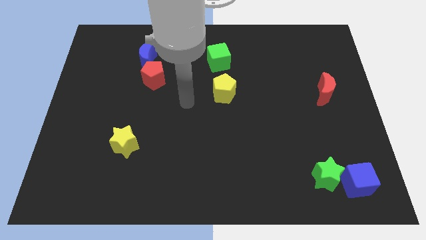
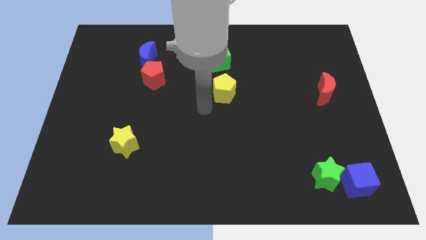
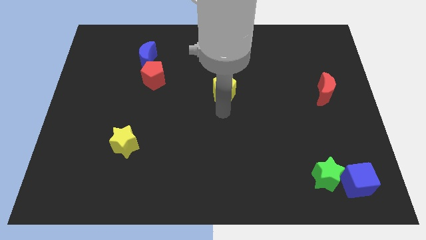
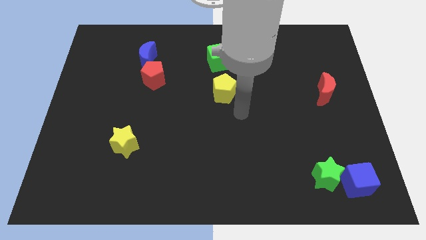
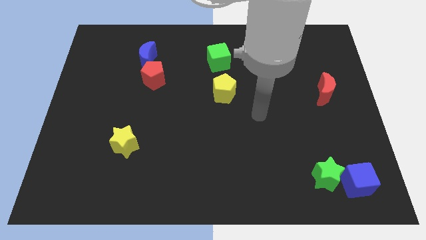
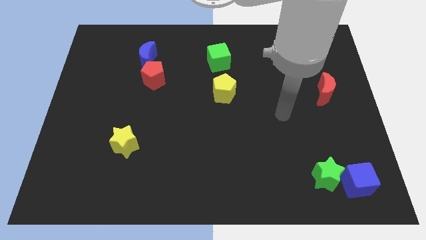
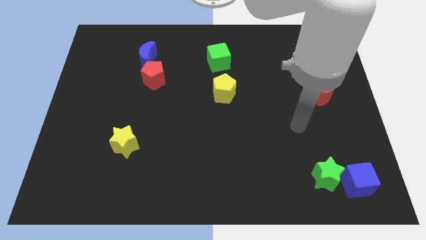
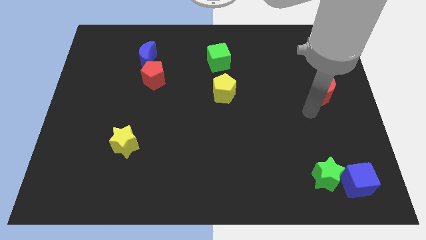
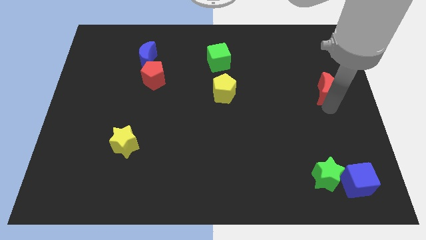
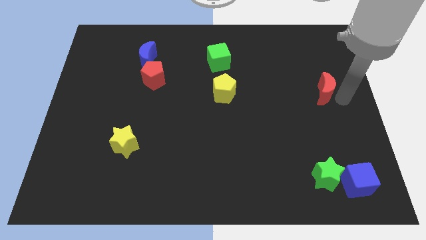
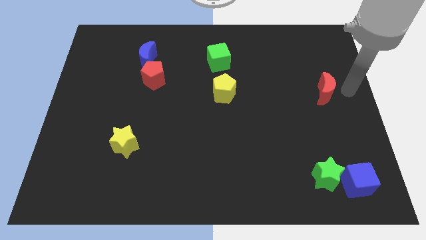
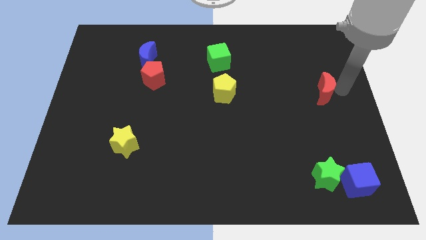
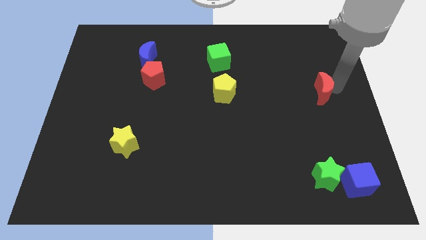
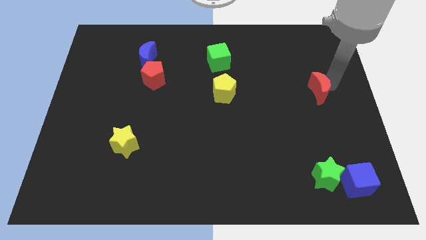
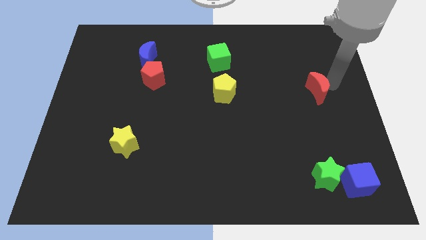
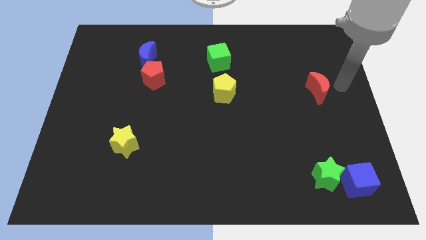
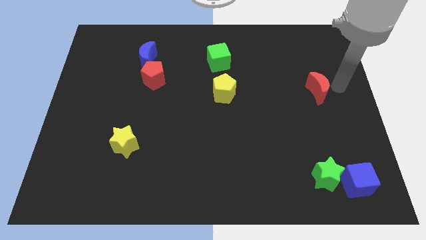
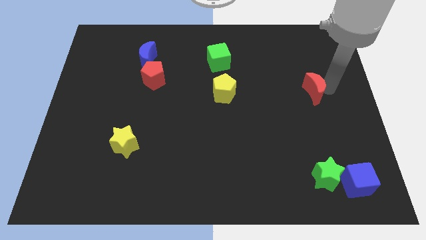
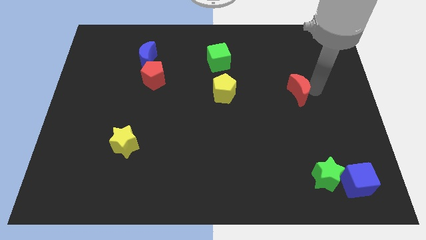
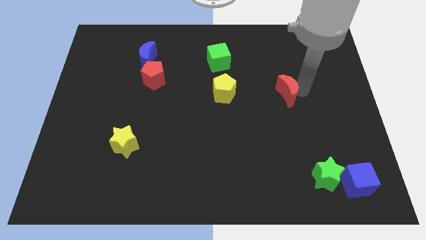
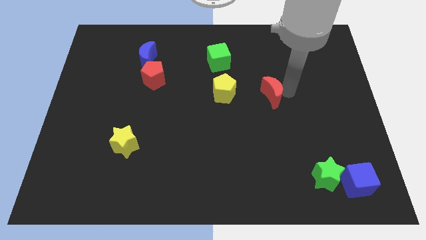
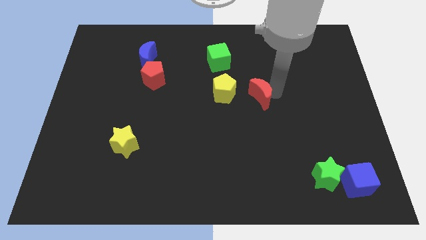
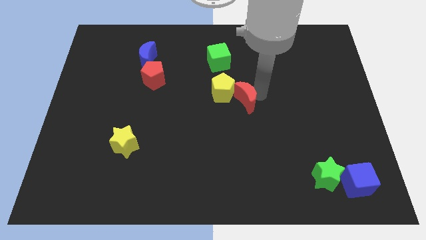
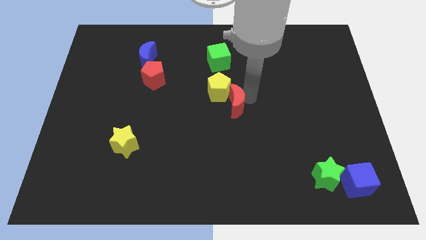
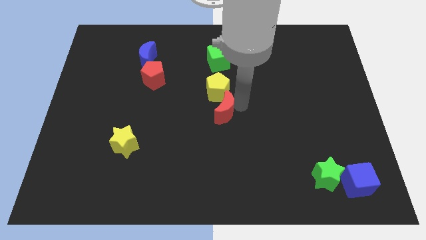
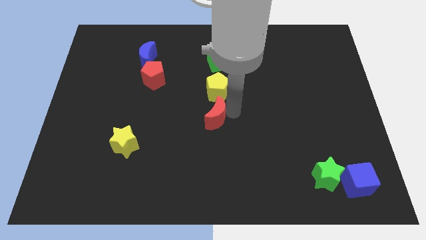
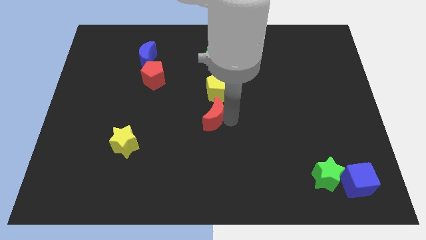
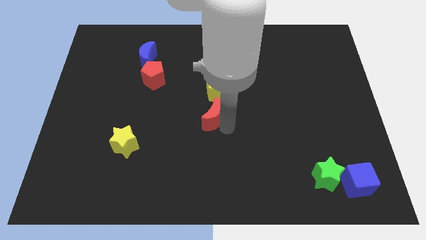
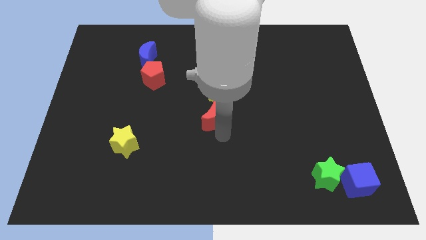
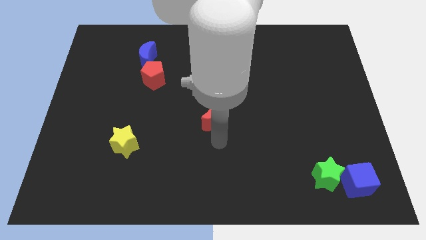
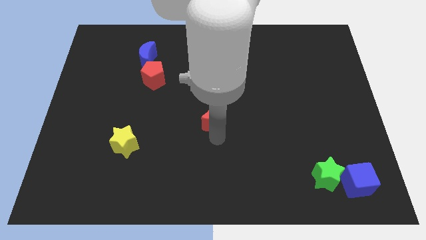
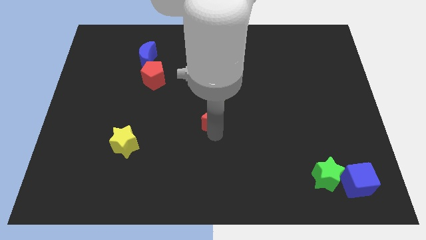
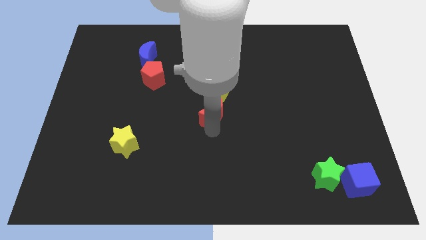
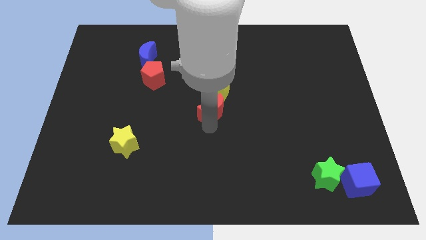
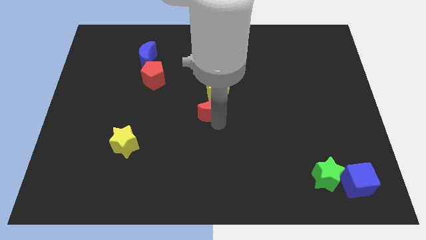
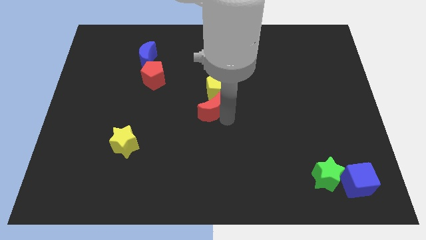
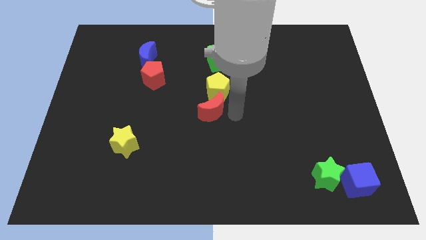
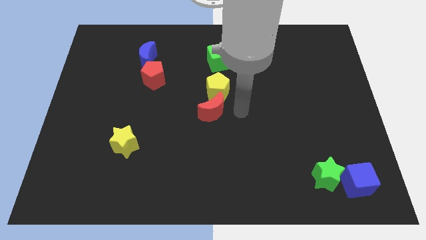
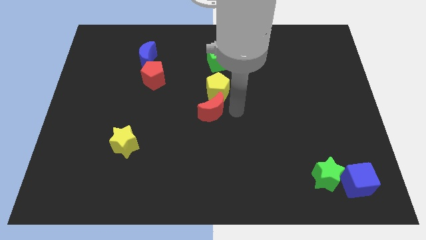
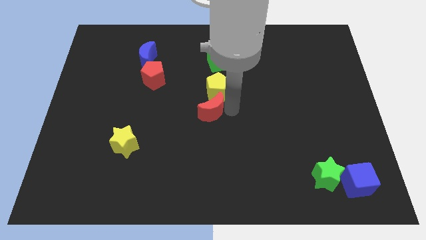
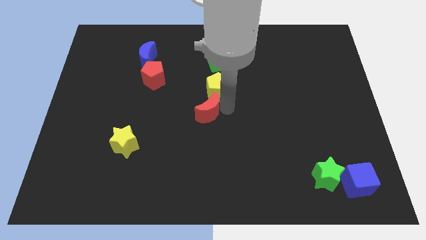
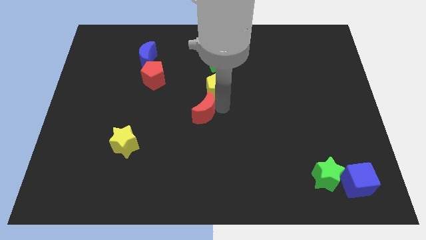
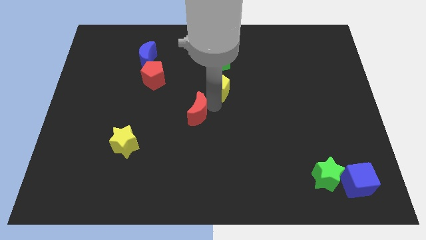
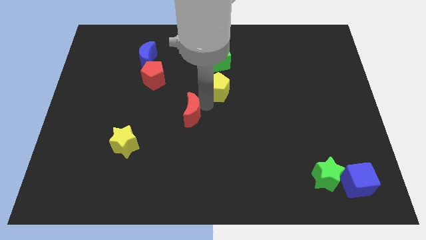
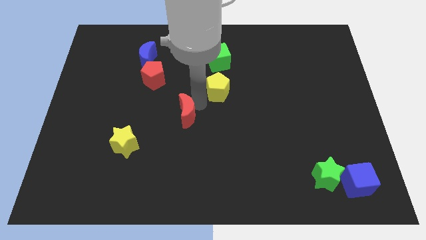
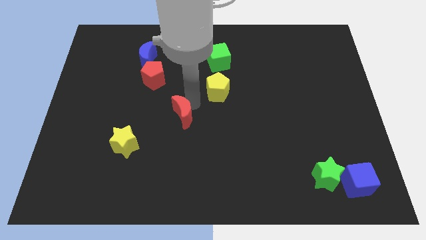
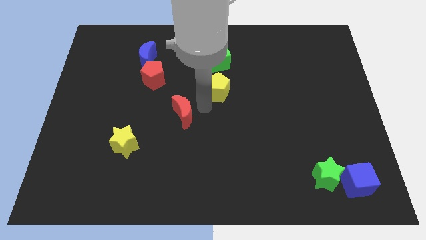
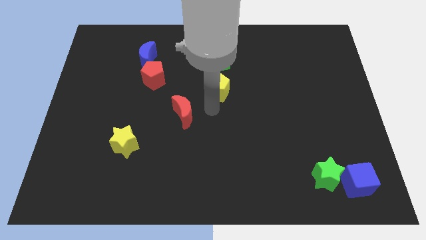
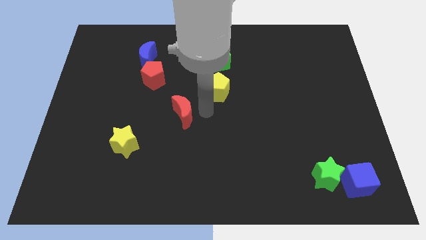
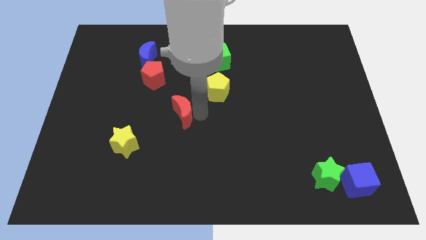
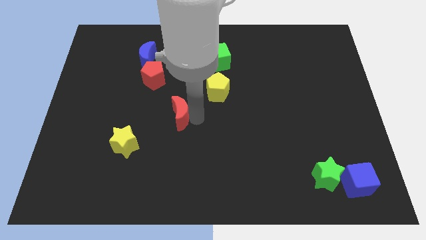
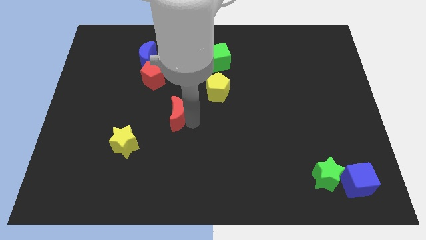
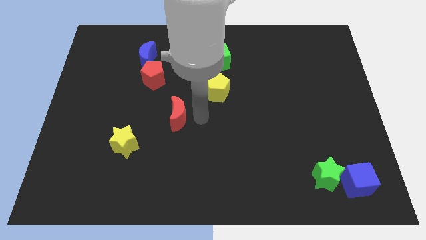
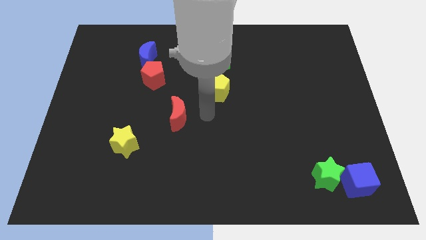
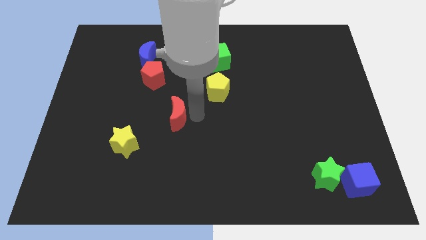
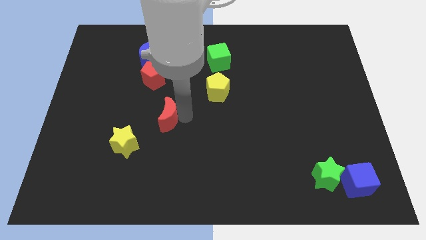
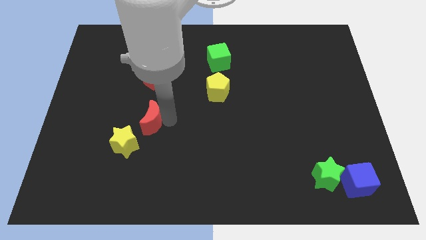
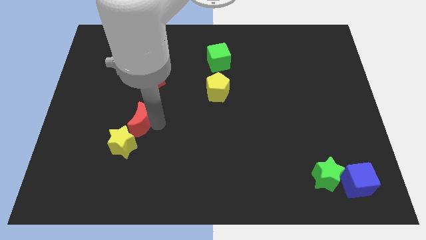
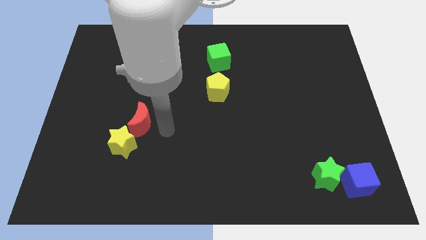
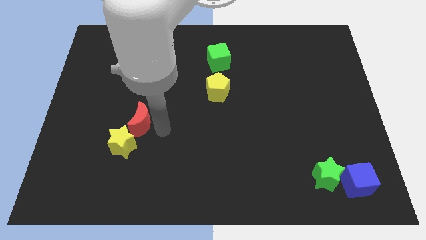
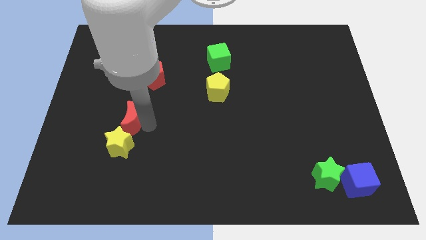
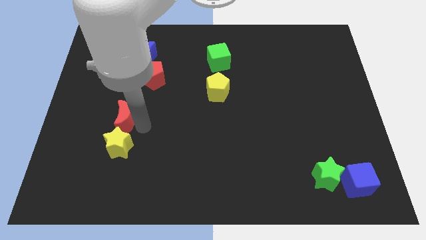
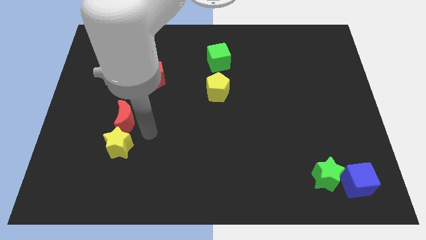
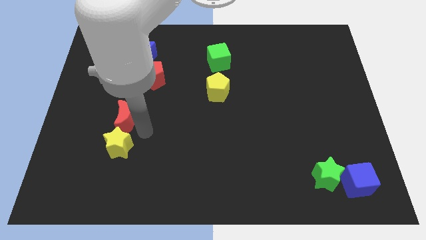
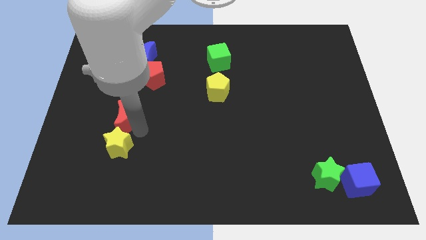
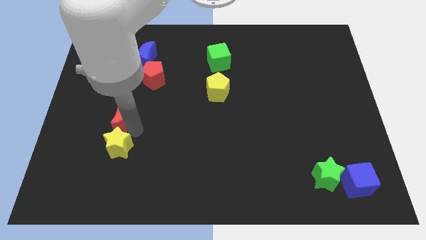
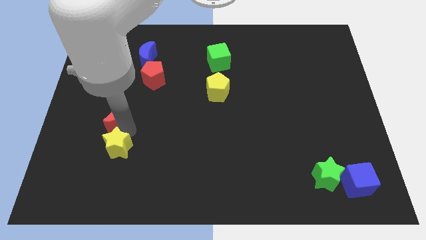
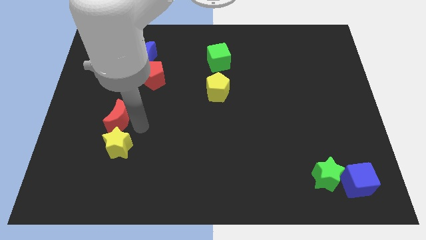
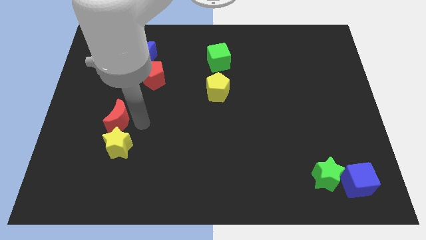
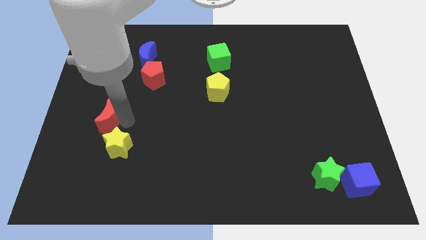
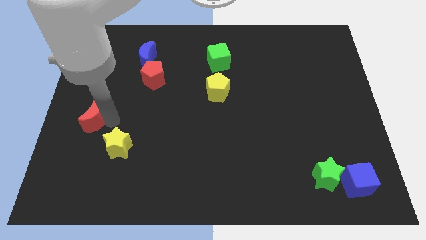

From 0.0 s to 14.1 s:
put the red moon to the left side of the board
